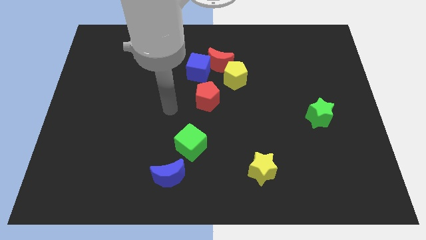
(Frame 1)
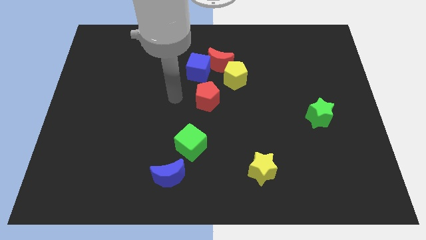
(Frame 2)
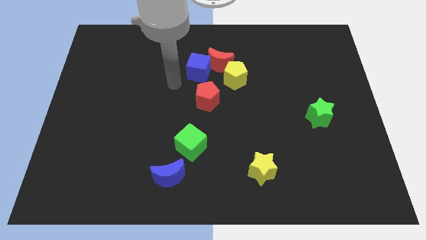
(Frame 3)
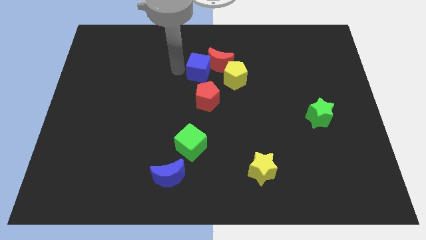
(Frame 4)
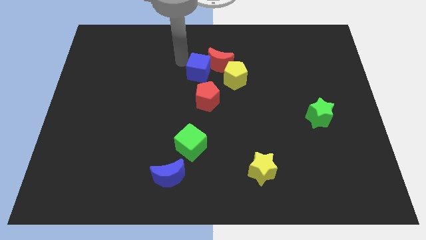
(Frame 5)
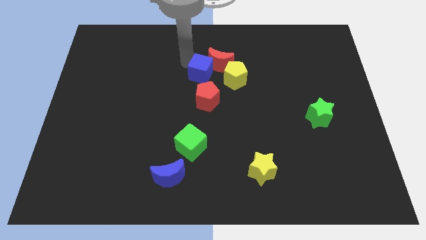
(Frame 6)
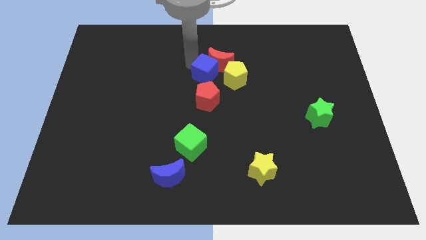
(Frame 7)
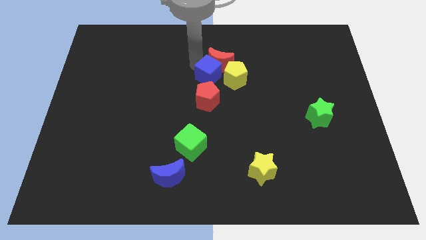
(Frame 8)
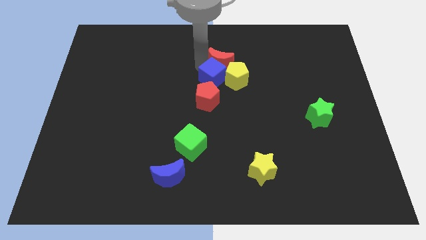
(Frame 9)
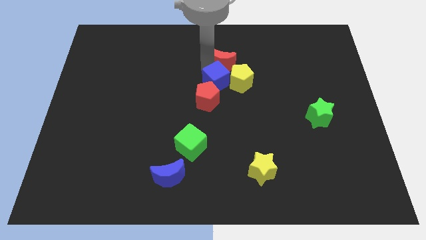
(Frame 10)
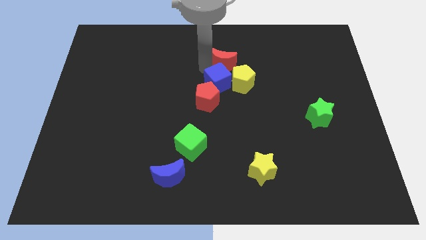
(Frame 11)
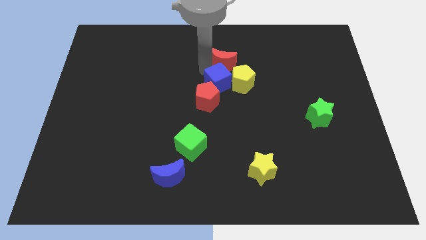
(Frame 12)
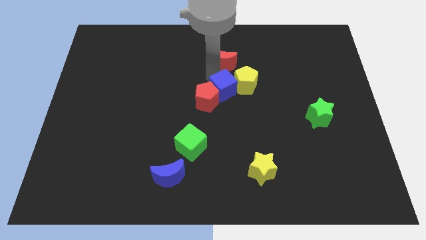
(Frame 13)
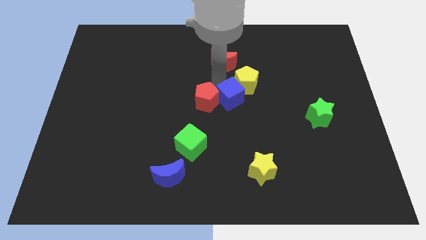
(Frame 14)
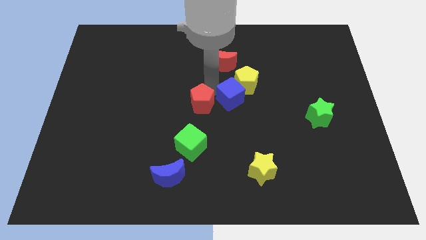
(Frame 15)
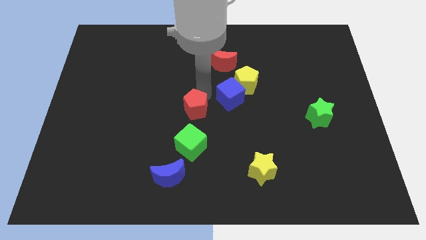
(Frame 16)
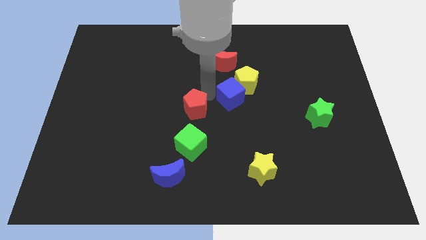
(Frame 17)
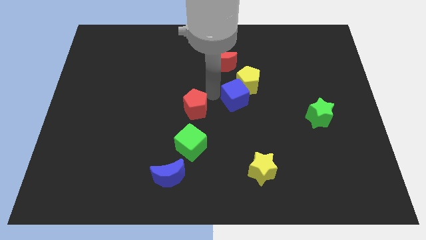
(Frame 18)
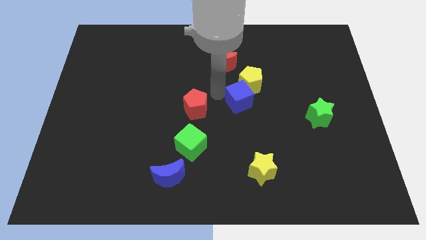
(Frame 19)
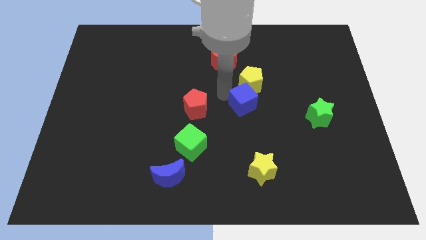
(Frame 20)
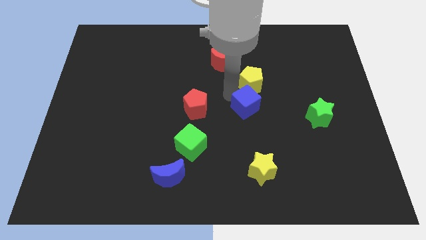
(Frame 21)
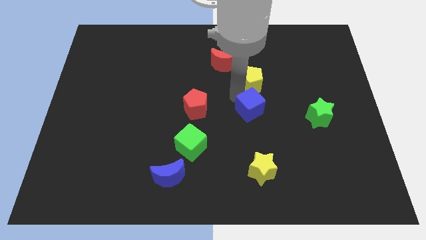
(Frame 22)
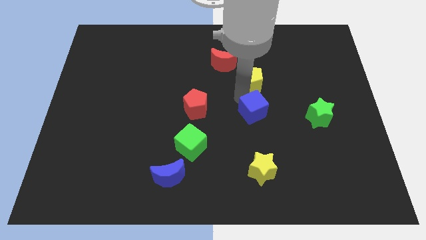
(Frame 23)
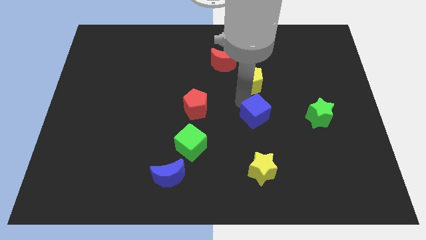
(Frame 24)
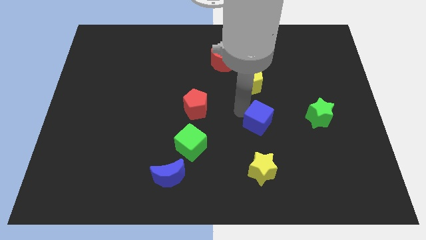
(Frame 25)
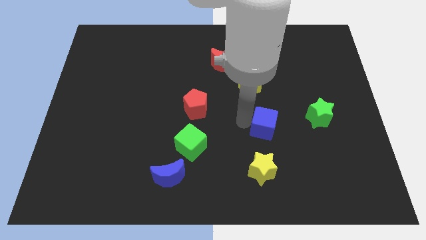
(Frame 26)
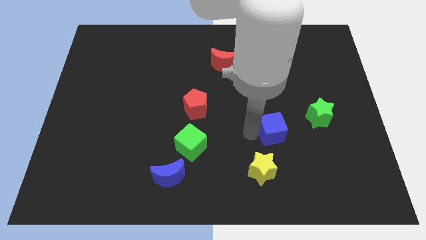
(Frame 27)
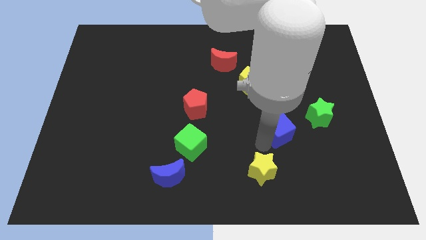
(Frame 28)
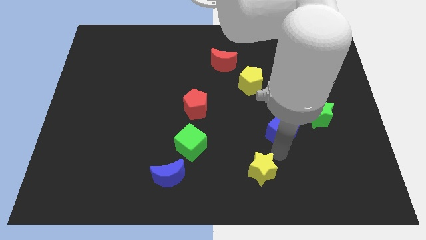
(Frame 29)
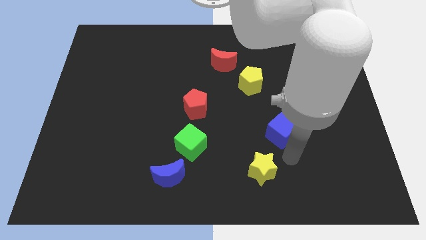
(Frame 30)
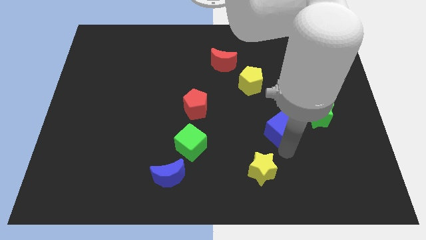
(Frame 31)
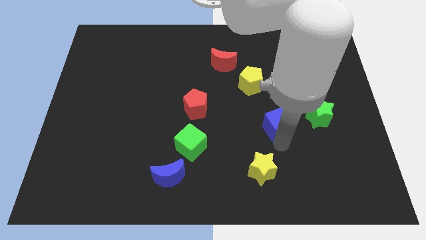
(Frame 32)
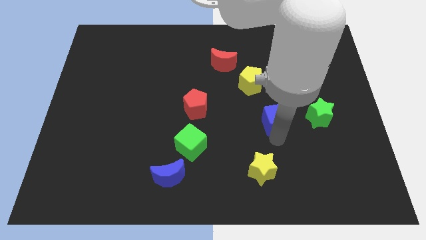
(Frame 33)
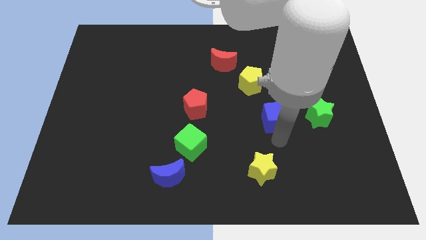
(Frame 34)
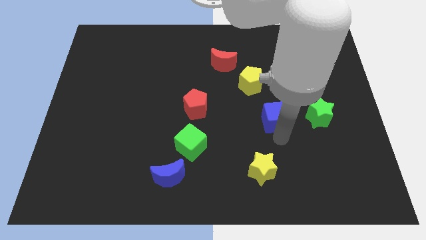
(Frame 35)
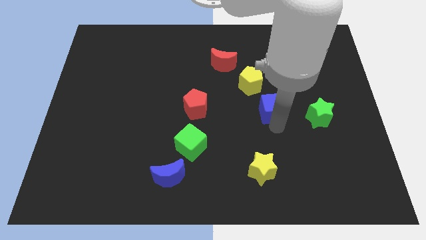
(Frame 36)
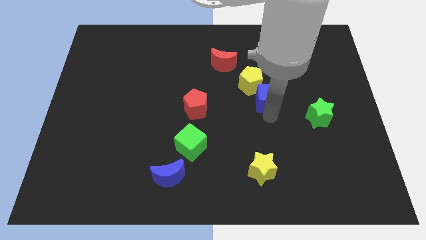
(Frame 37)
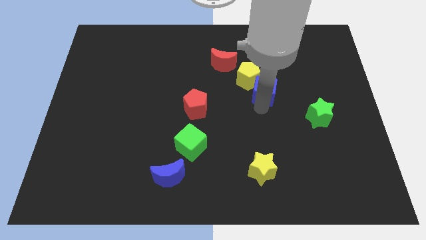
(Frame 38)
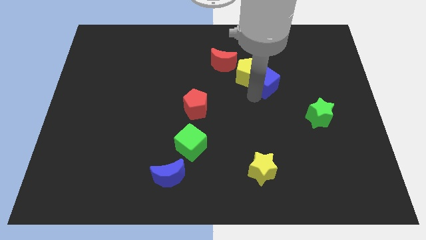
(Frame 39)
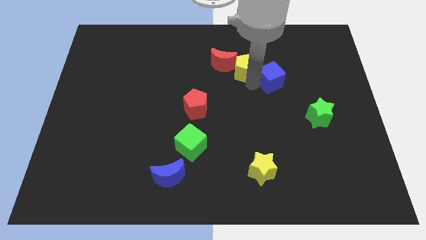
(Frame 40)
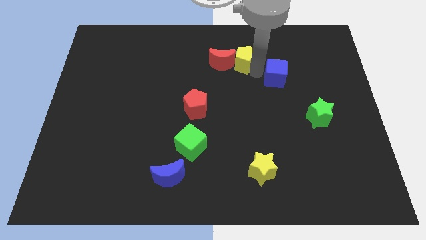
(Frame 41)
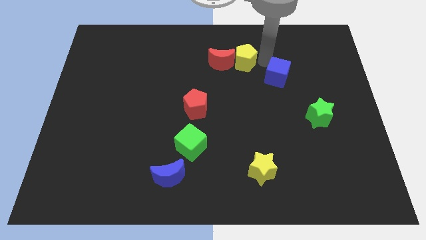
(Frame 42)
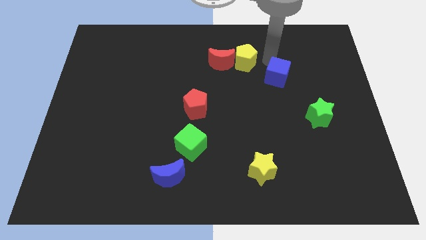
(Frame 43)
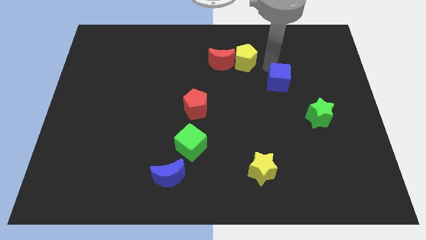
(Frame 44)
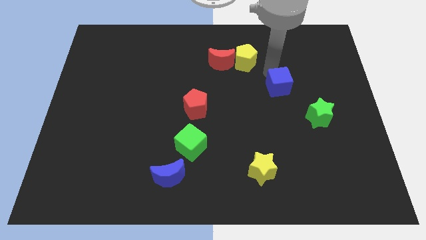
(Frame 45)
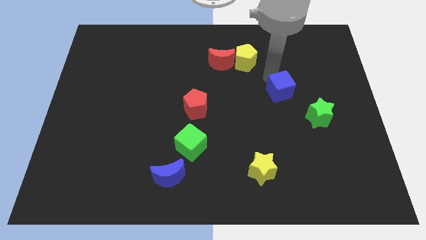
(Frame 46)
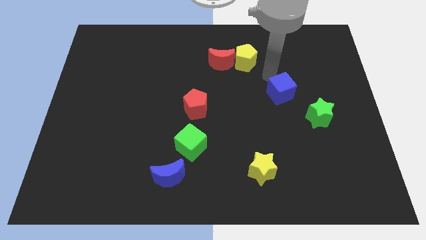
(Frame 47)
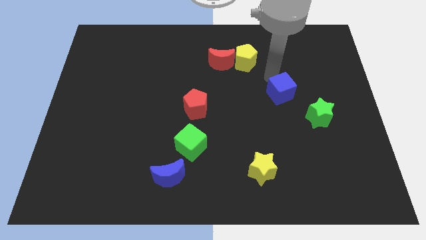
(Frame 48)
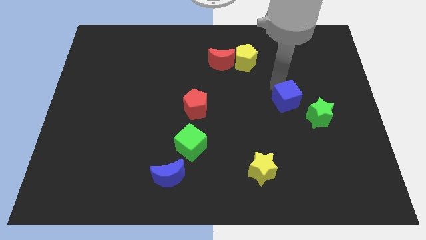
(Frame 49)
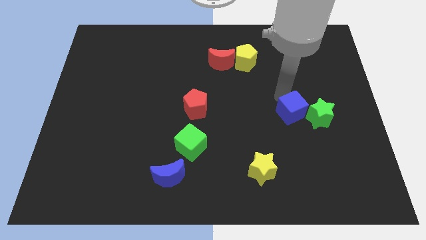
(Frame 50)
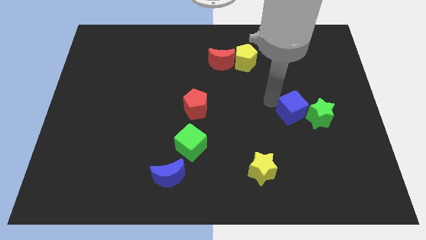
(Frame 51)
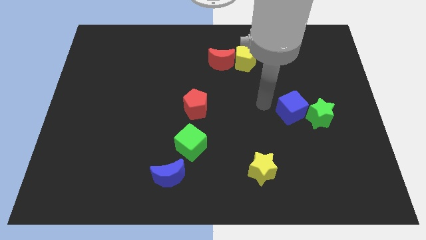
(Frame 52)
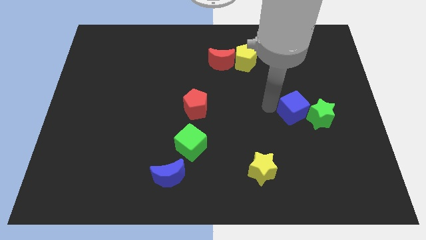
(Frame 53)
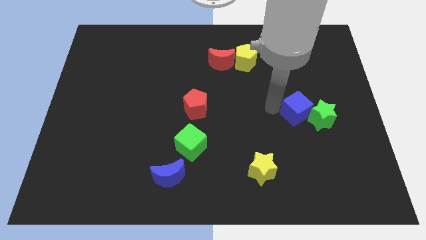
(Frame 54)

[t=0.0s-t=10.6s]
push the blue cube next to the green star

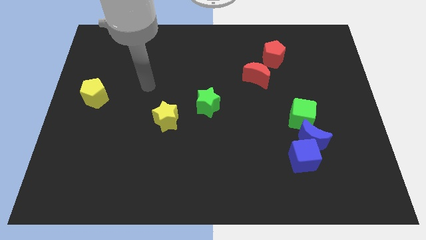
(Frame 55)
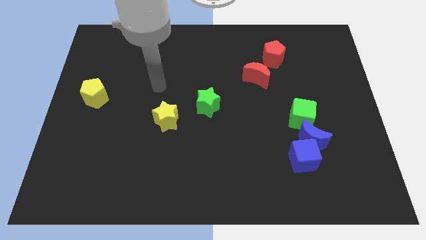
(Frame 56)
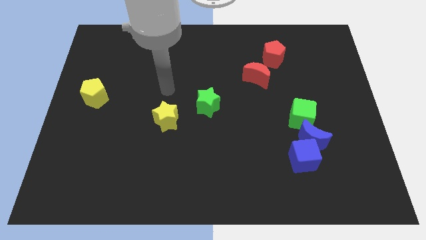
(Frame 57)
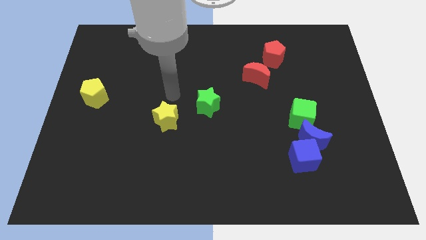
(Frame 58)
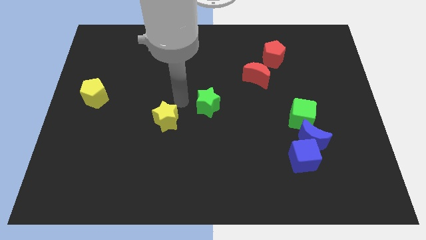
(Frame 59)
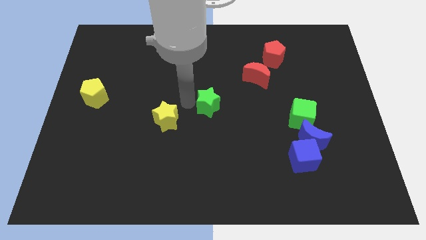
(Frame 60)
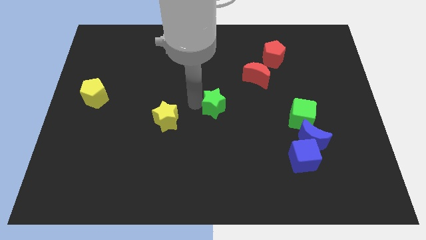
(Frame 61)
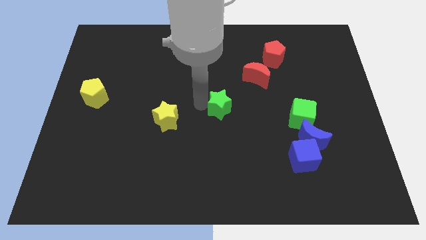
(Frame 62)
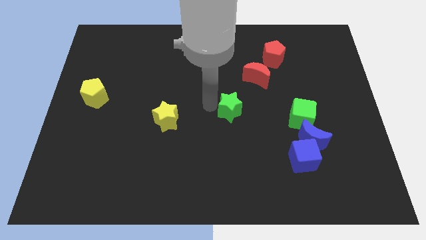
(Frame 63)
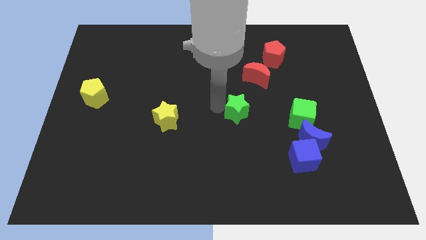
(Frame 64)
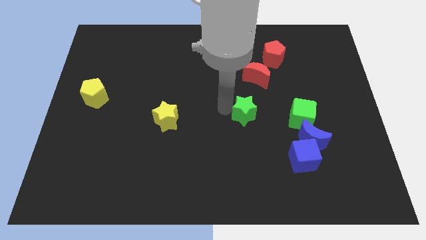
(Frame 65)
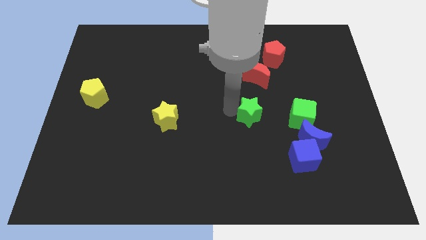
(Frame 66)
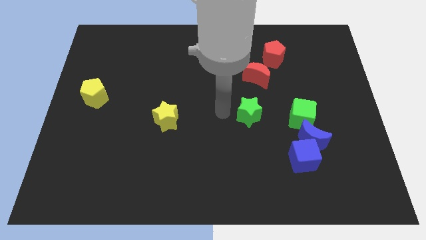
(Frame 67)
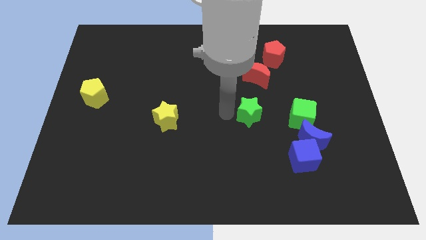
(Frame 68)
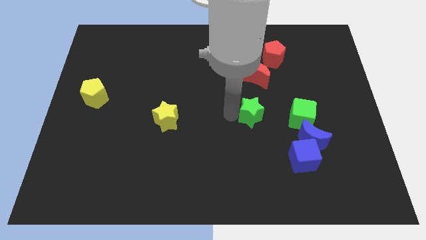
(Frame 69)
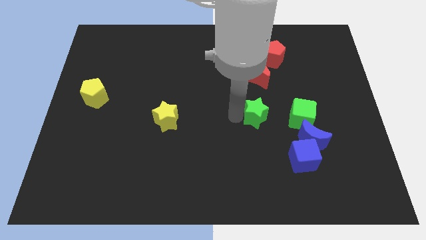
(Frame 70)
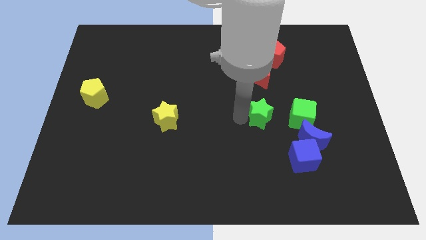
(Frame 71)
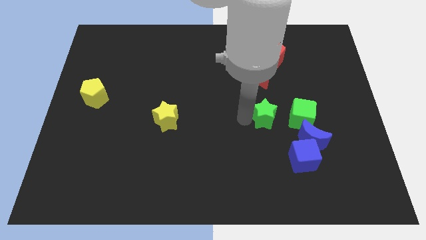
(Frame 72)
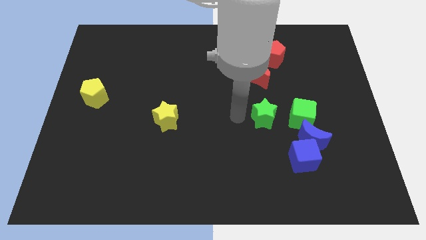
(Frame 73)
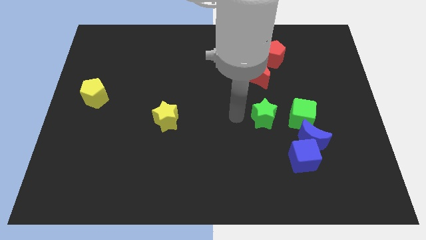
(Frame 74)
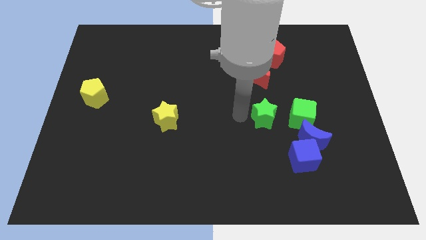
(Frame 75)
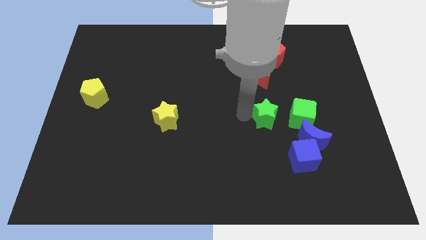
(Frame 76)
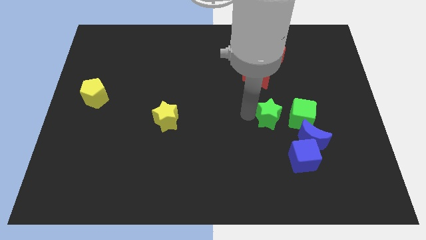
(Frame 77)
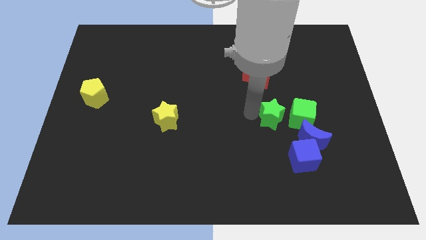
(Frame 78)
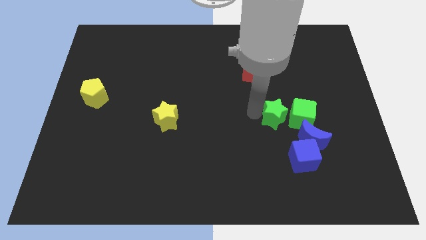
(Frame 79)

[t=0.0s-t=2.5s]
put the green star close to the green cube
